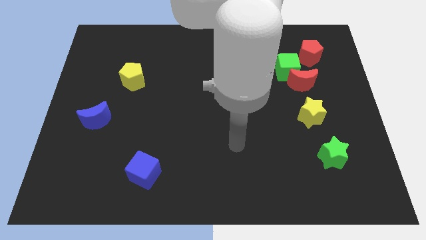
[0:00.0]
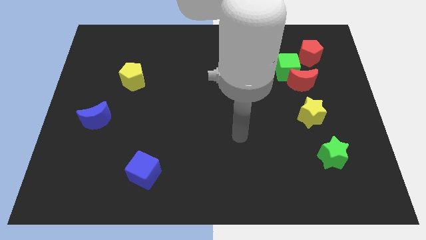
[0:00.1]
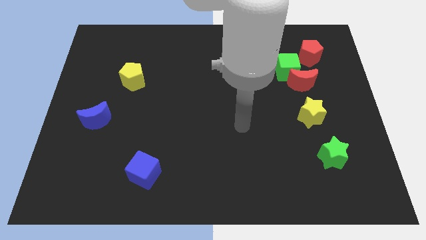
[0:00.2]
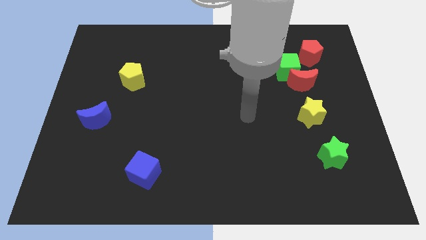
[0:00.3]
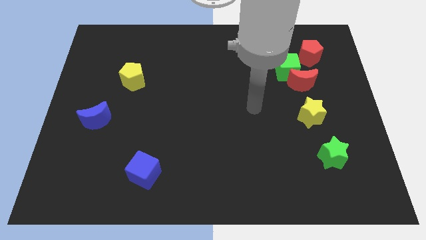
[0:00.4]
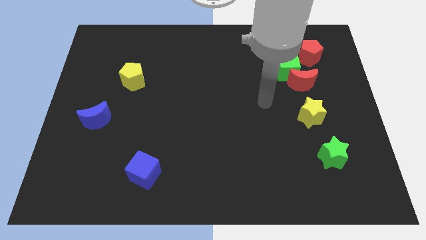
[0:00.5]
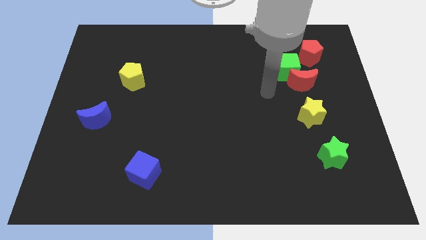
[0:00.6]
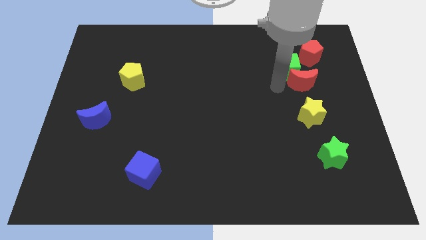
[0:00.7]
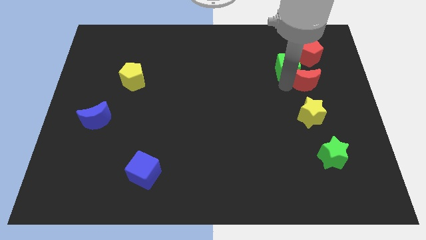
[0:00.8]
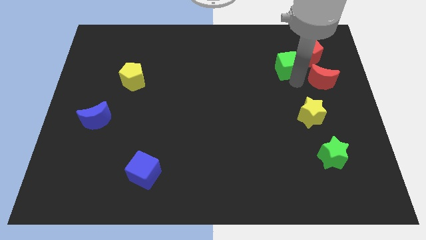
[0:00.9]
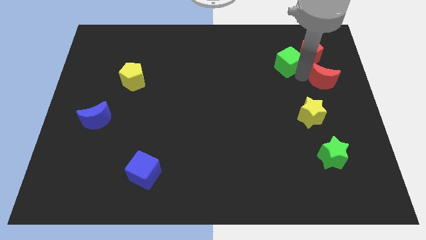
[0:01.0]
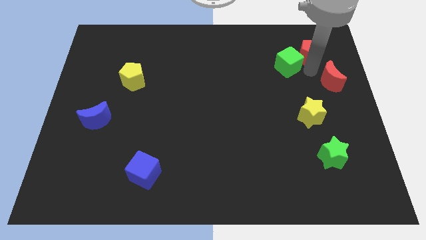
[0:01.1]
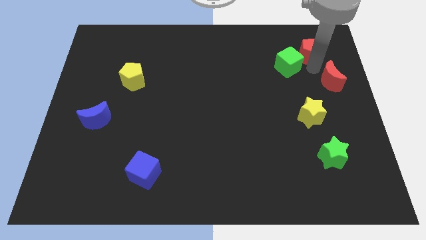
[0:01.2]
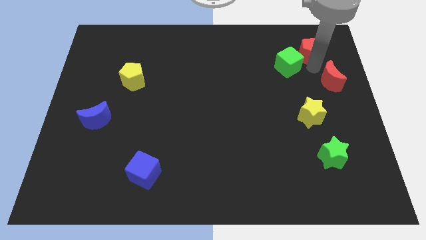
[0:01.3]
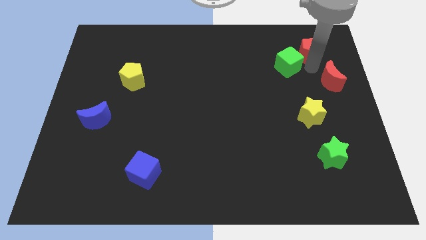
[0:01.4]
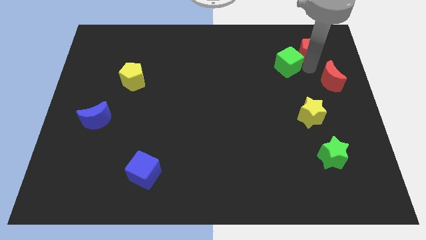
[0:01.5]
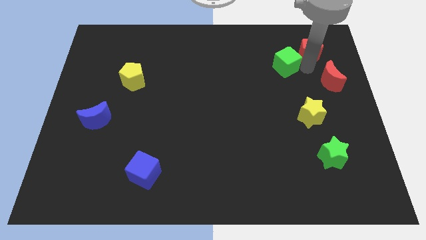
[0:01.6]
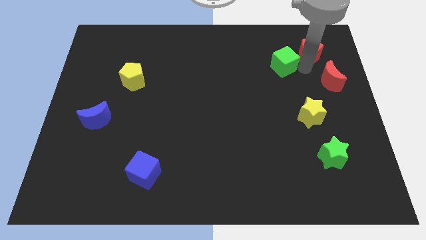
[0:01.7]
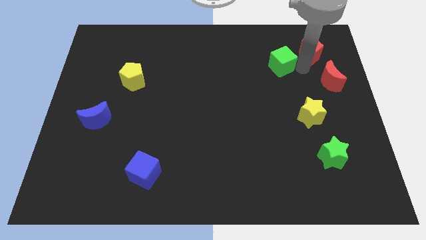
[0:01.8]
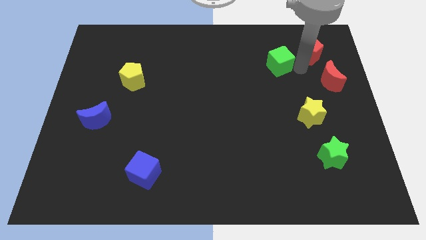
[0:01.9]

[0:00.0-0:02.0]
move the green cube away from the red moon and red pentagon

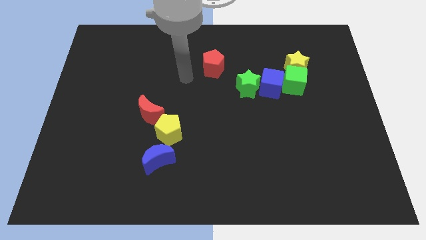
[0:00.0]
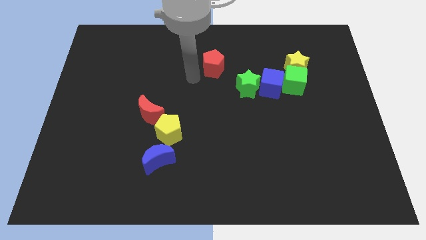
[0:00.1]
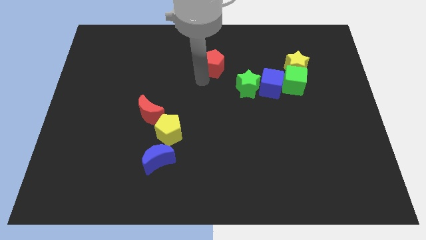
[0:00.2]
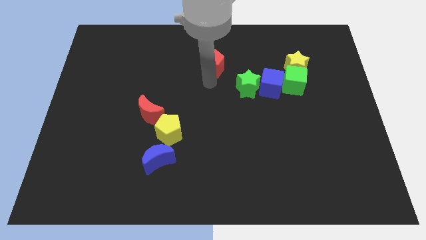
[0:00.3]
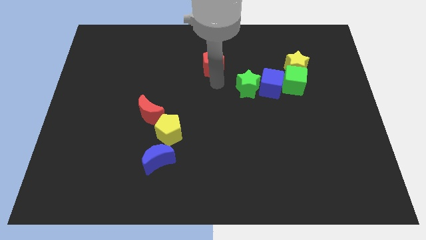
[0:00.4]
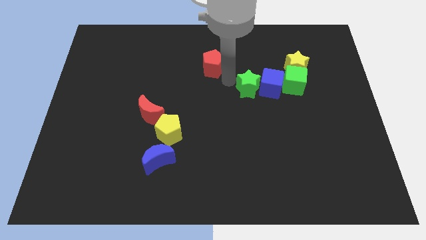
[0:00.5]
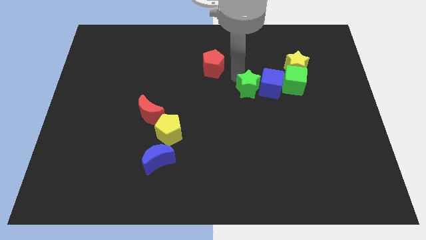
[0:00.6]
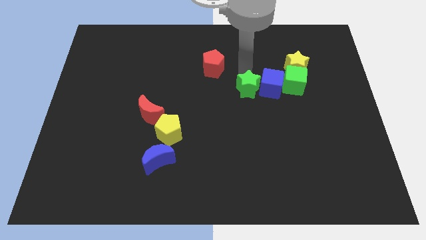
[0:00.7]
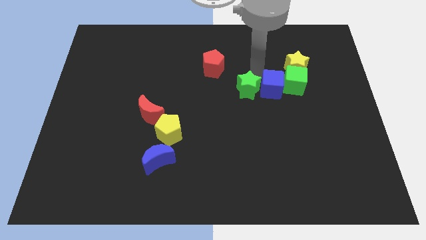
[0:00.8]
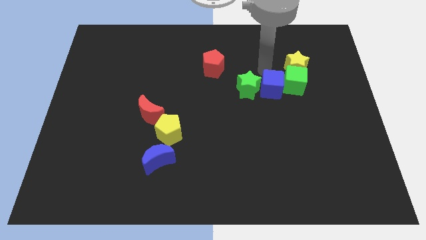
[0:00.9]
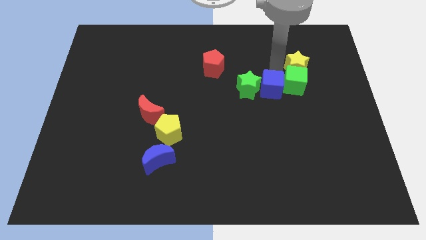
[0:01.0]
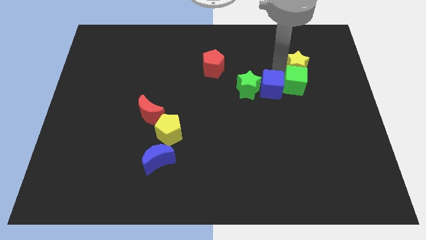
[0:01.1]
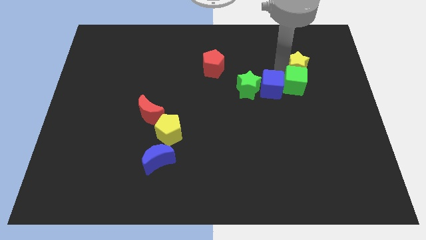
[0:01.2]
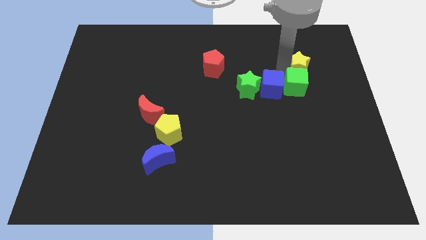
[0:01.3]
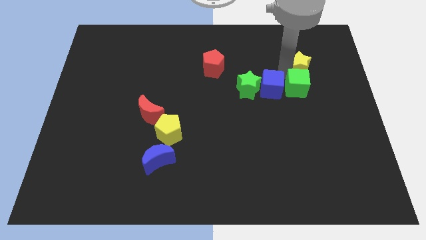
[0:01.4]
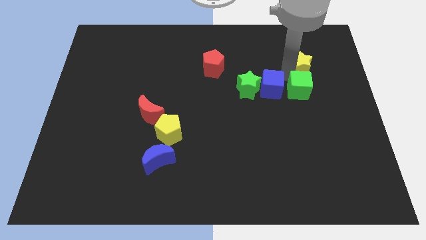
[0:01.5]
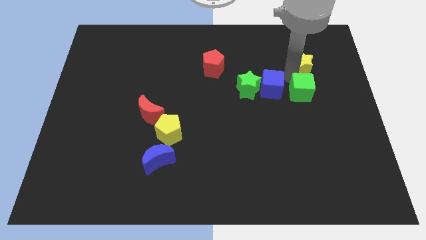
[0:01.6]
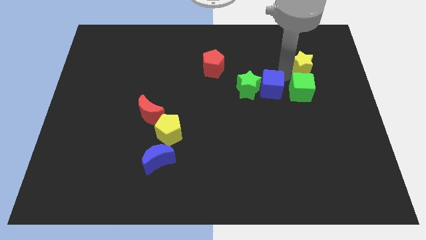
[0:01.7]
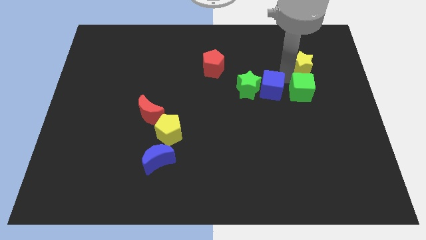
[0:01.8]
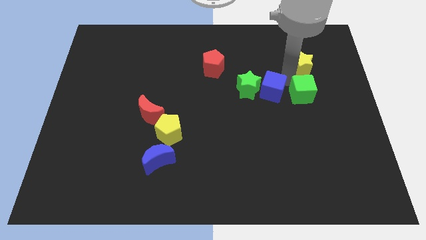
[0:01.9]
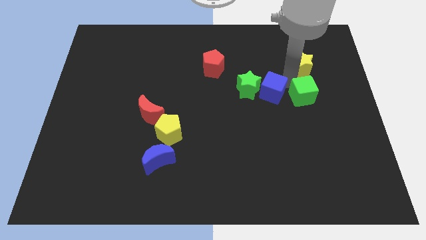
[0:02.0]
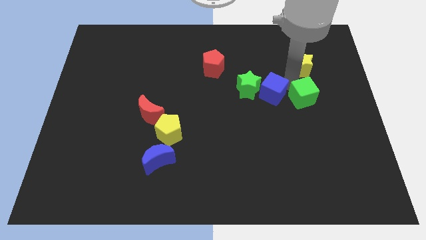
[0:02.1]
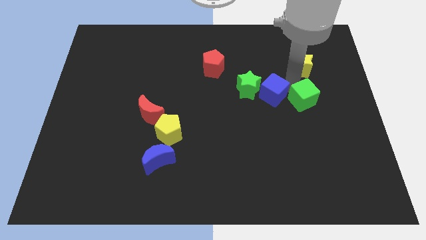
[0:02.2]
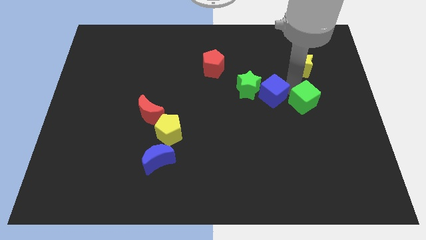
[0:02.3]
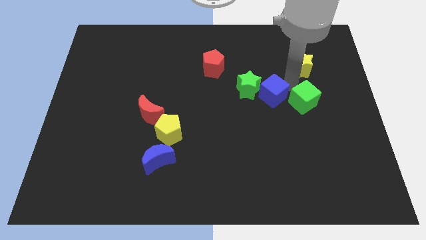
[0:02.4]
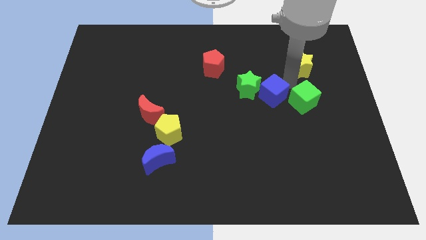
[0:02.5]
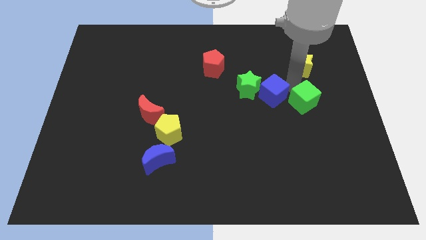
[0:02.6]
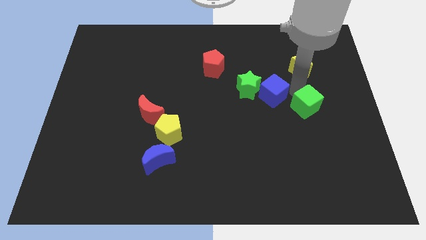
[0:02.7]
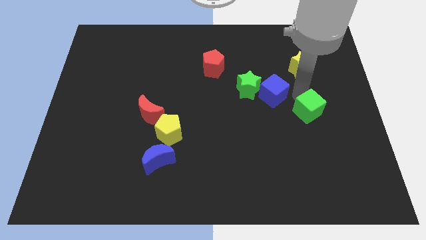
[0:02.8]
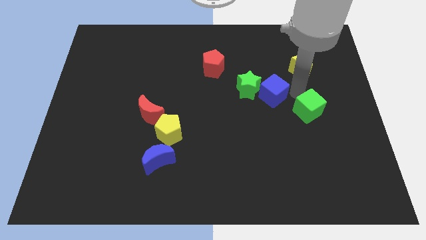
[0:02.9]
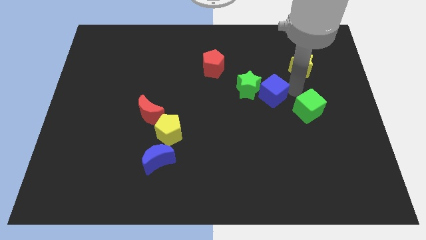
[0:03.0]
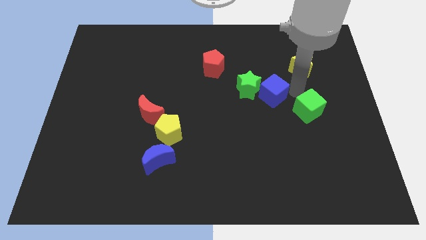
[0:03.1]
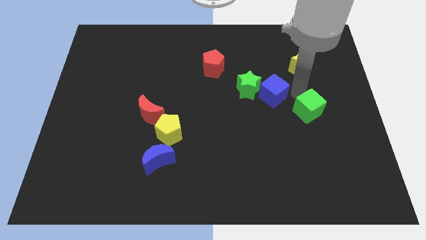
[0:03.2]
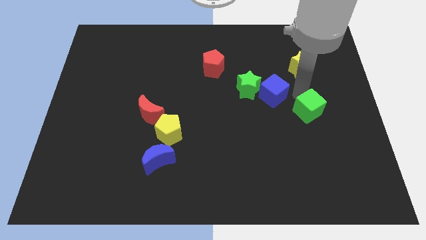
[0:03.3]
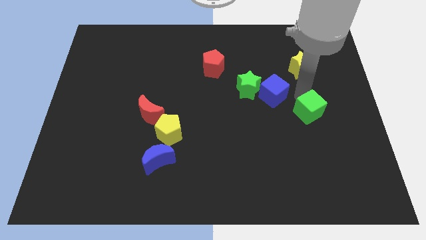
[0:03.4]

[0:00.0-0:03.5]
pull the green cube apart from the yellow star and blue cube

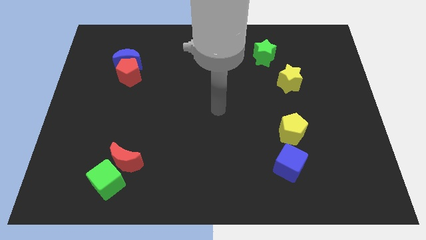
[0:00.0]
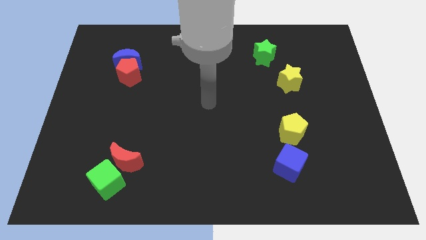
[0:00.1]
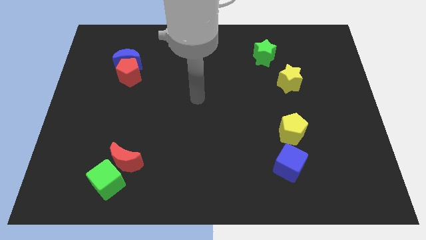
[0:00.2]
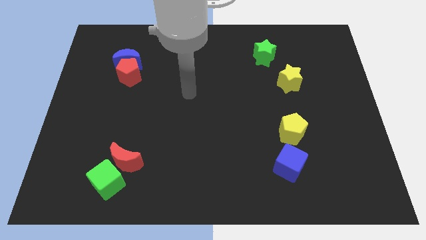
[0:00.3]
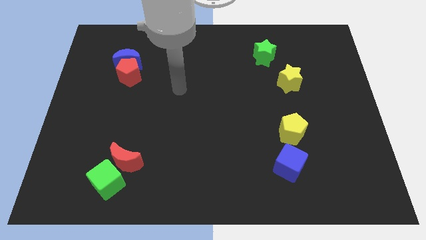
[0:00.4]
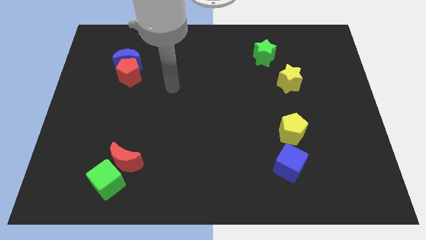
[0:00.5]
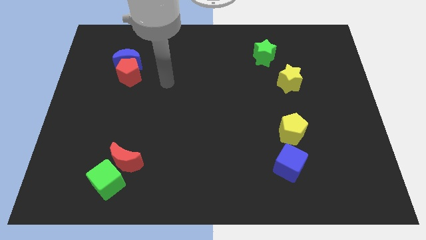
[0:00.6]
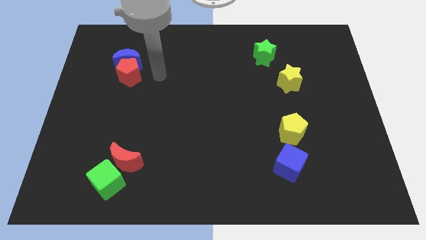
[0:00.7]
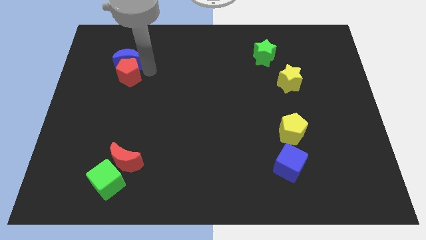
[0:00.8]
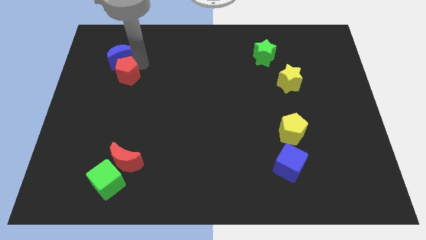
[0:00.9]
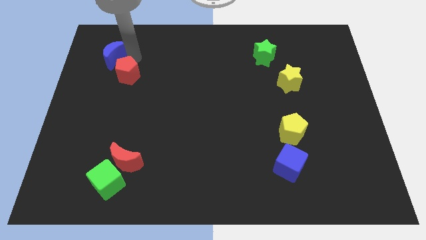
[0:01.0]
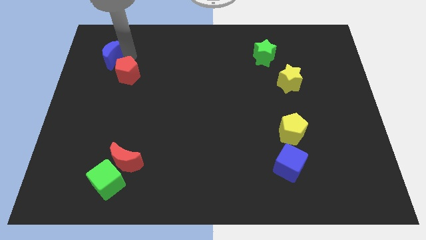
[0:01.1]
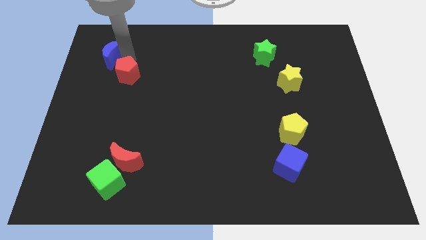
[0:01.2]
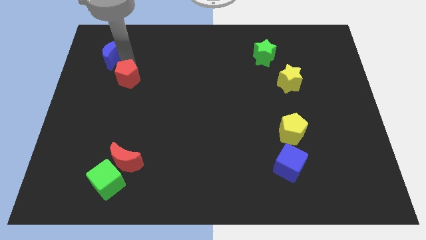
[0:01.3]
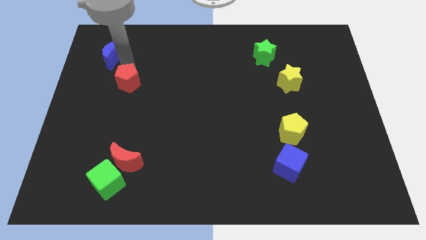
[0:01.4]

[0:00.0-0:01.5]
move the red pentagon away from the blue moon

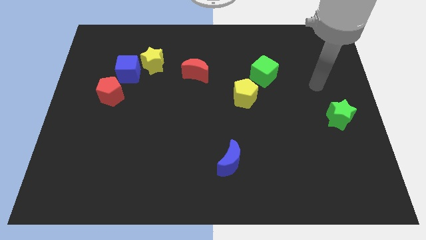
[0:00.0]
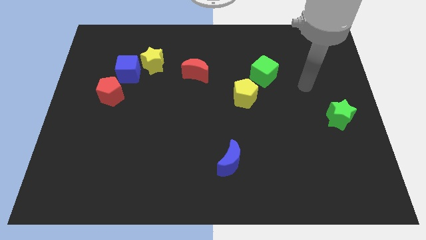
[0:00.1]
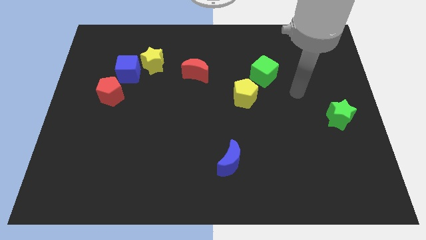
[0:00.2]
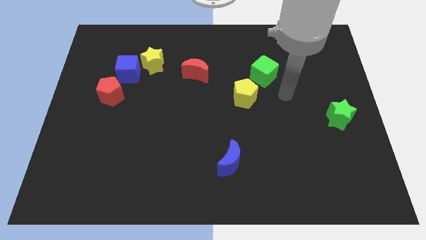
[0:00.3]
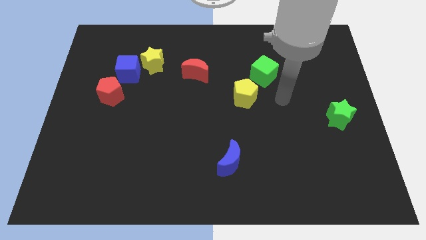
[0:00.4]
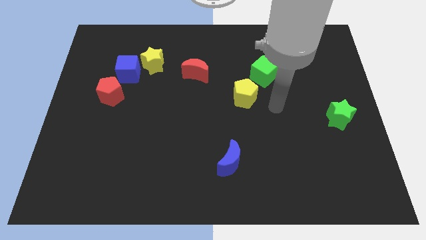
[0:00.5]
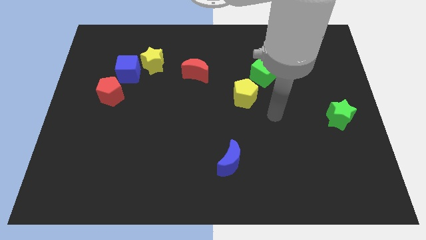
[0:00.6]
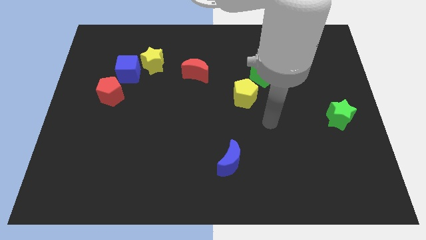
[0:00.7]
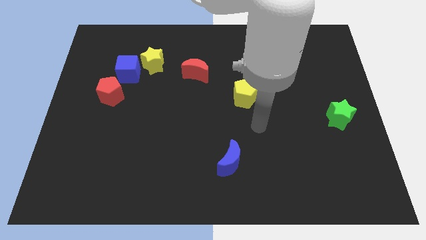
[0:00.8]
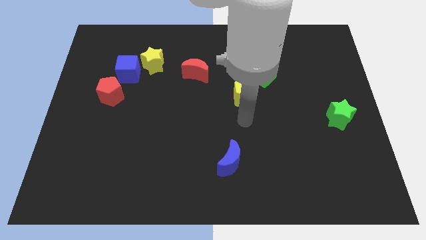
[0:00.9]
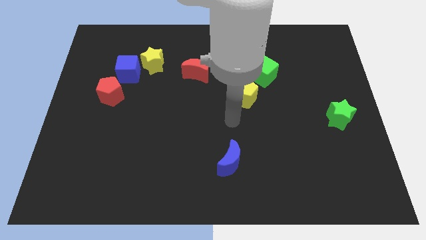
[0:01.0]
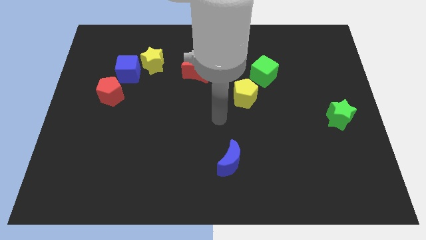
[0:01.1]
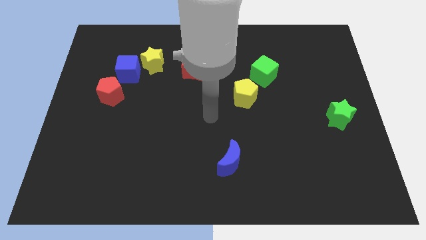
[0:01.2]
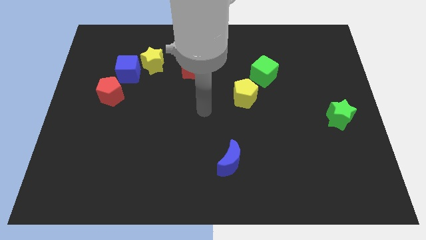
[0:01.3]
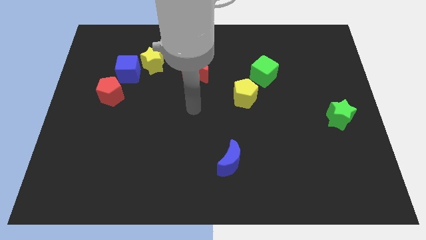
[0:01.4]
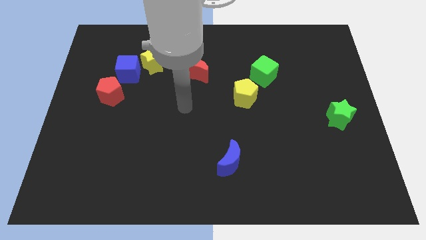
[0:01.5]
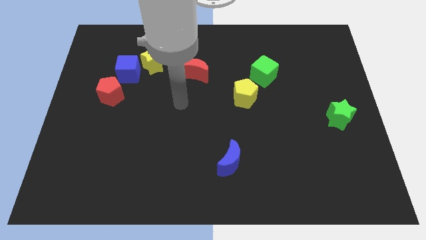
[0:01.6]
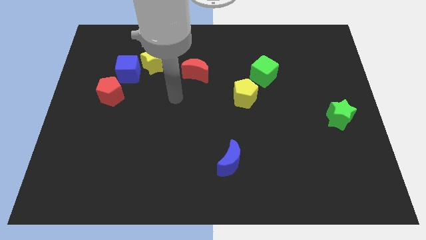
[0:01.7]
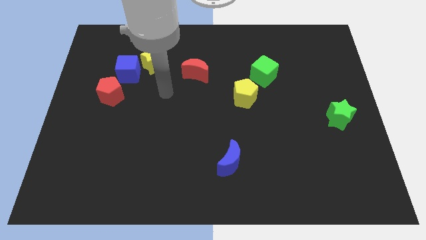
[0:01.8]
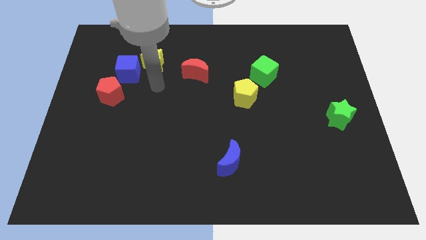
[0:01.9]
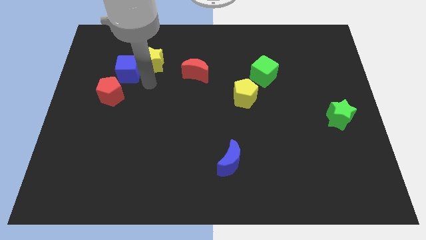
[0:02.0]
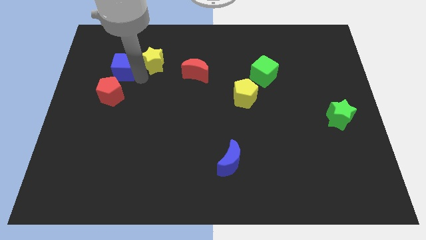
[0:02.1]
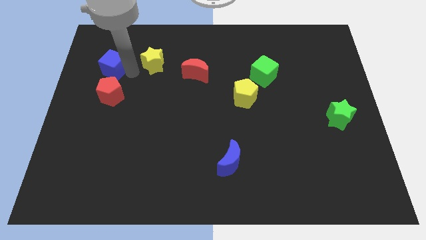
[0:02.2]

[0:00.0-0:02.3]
move the yellow star away from the blue cube
